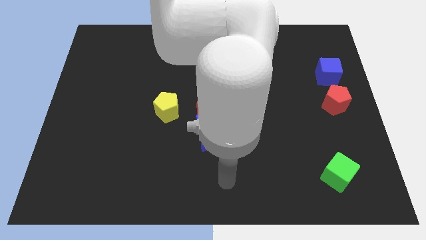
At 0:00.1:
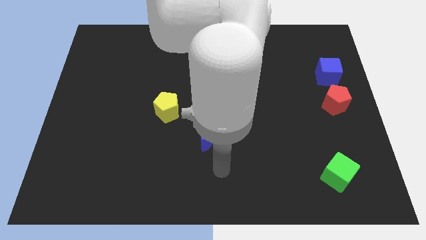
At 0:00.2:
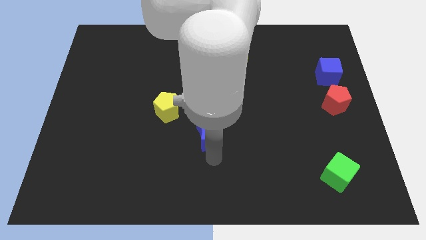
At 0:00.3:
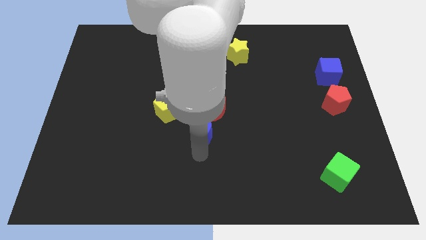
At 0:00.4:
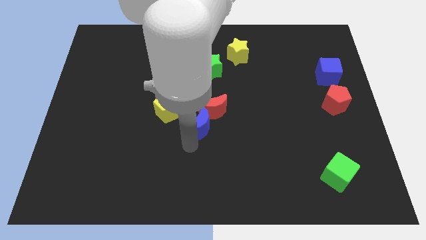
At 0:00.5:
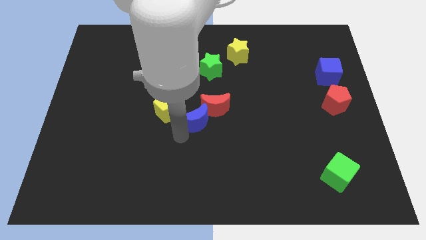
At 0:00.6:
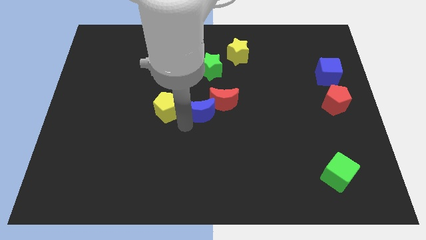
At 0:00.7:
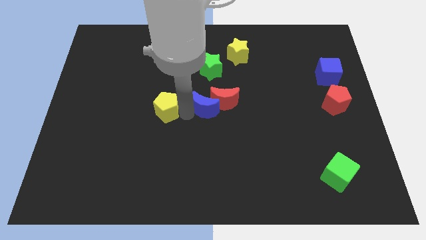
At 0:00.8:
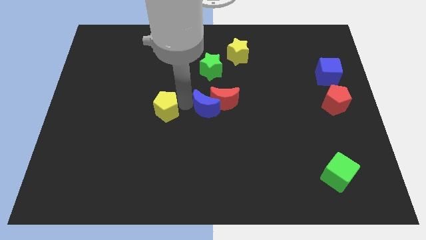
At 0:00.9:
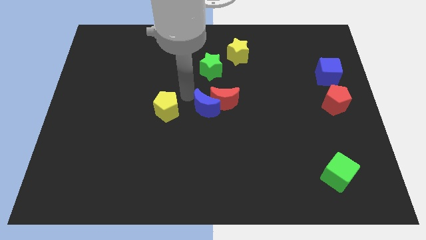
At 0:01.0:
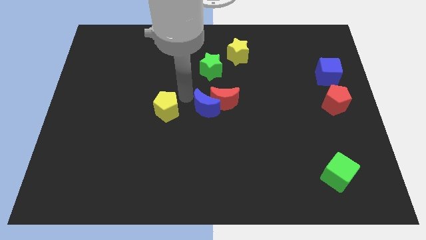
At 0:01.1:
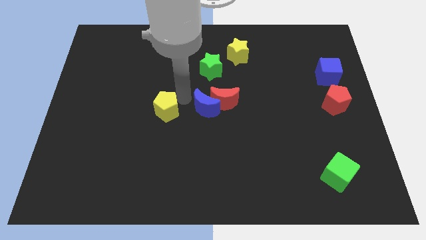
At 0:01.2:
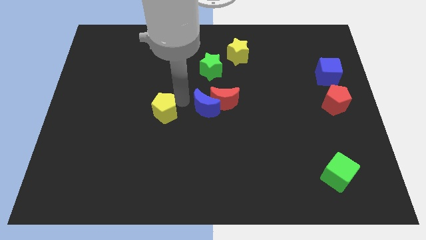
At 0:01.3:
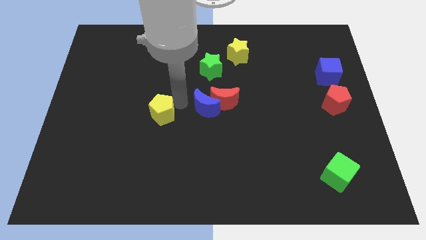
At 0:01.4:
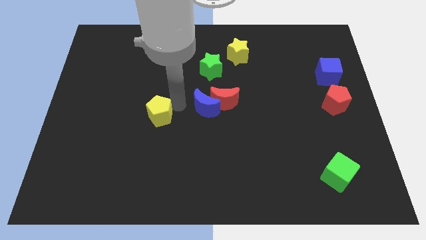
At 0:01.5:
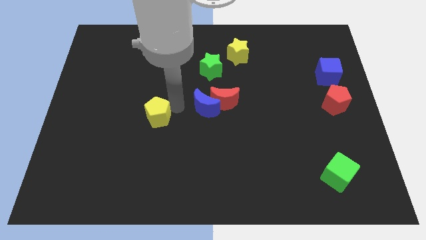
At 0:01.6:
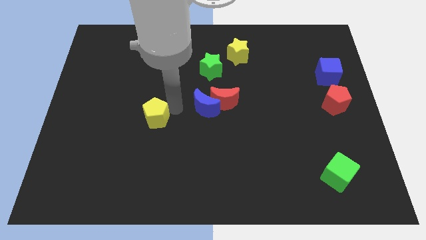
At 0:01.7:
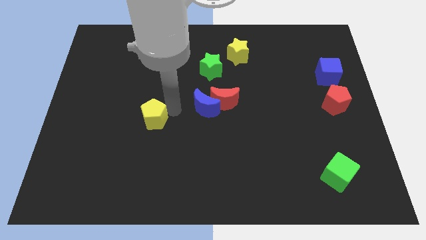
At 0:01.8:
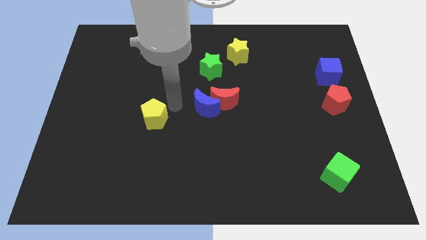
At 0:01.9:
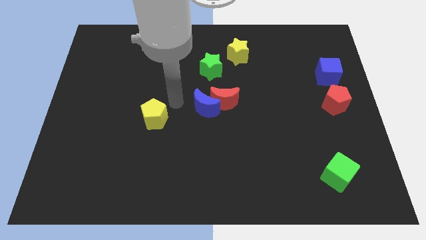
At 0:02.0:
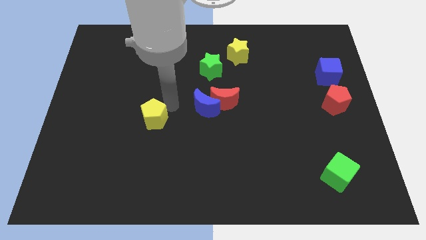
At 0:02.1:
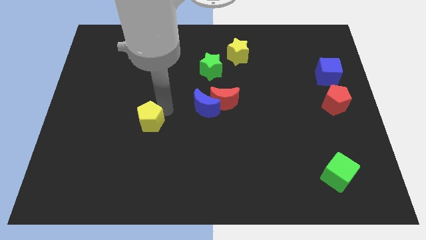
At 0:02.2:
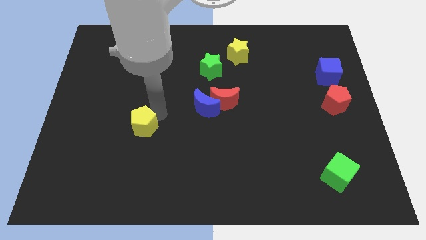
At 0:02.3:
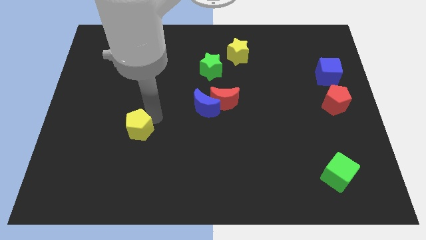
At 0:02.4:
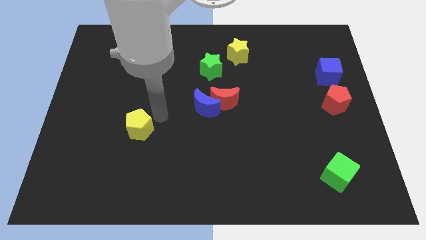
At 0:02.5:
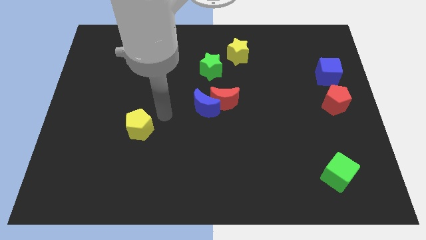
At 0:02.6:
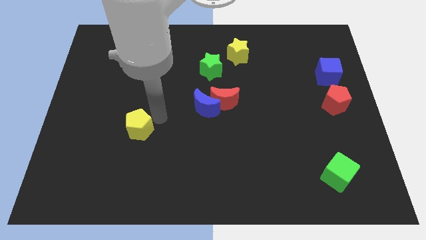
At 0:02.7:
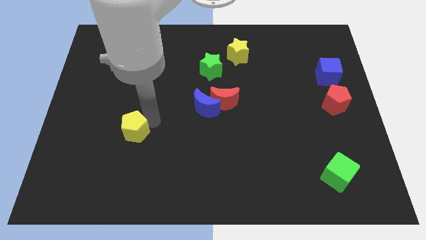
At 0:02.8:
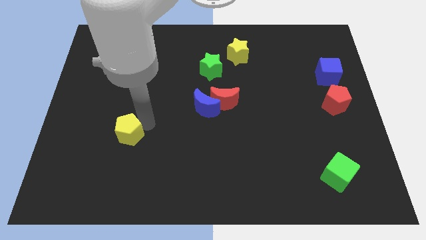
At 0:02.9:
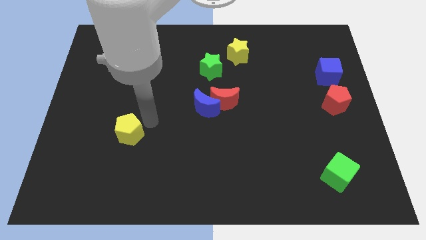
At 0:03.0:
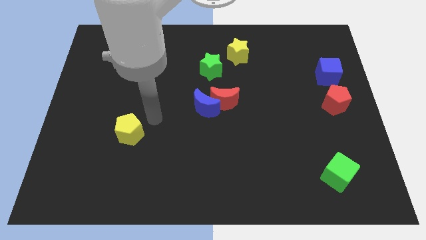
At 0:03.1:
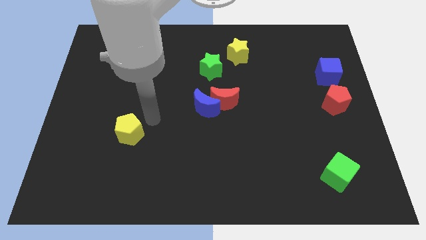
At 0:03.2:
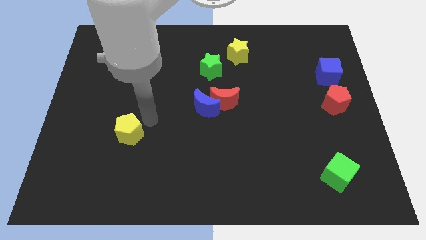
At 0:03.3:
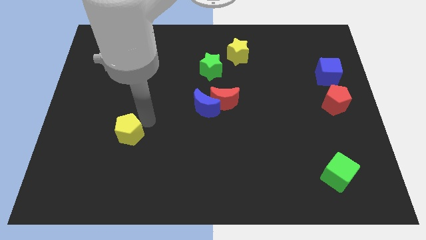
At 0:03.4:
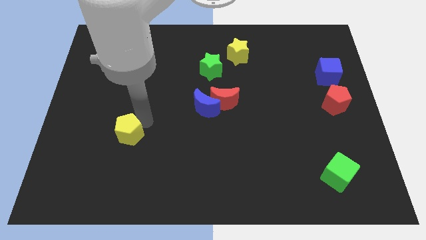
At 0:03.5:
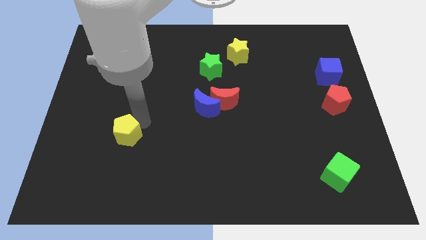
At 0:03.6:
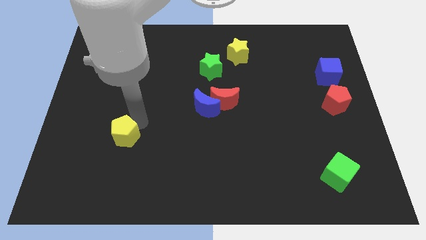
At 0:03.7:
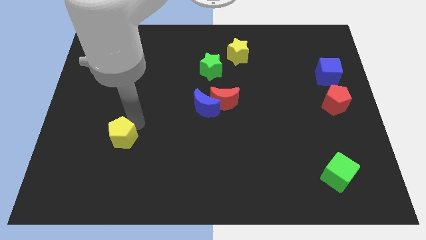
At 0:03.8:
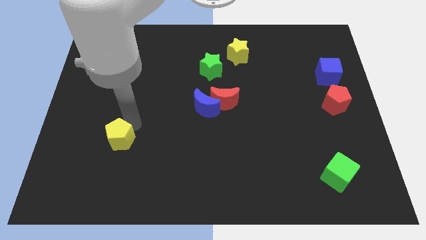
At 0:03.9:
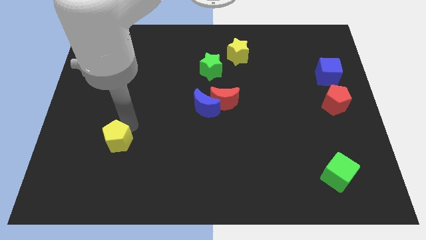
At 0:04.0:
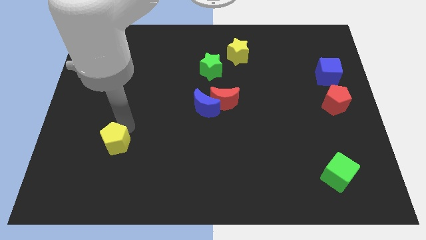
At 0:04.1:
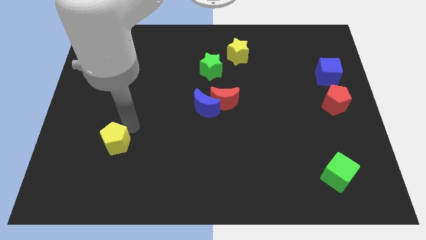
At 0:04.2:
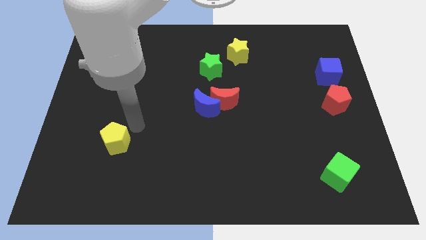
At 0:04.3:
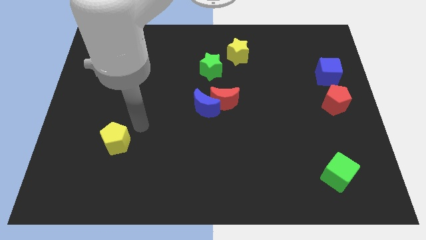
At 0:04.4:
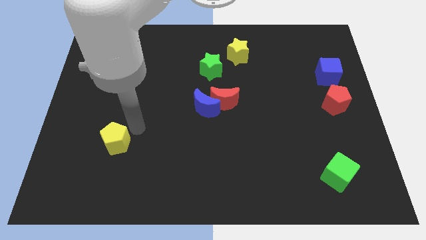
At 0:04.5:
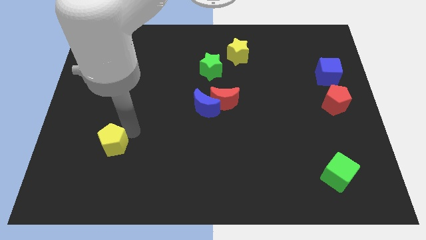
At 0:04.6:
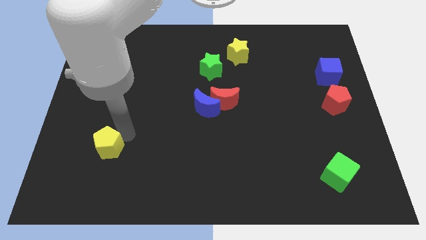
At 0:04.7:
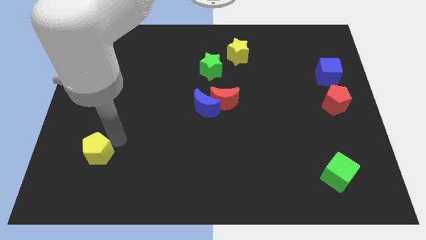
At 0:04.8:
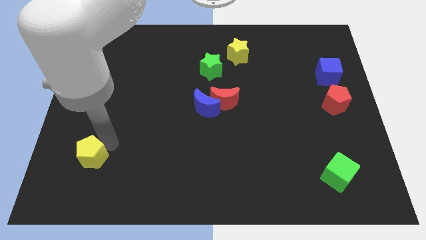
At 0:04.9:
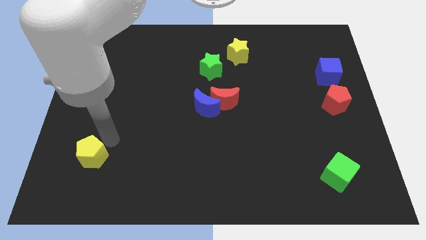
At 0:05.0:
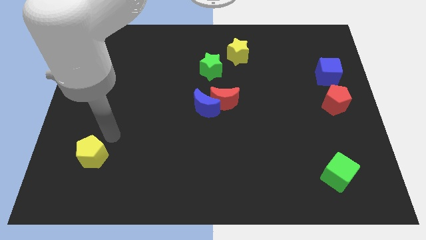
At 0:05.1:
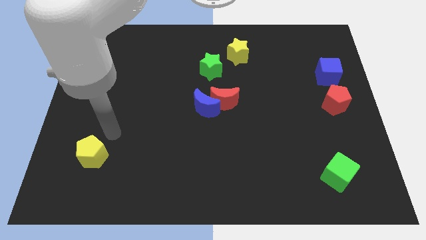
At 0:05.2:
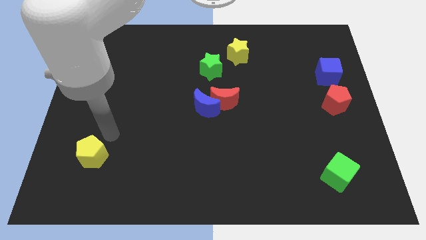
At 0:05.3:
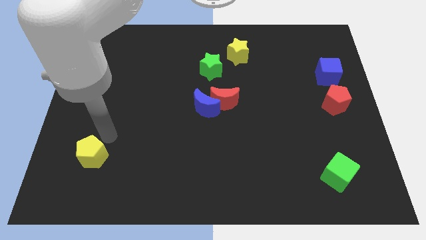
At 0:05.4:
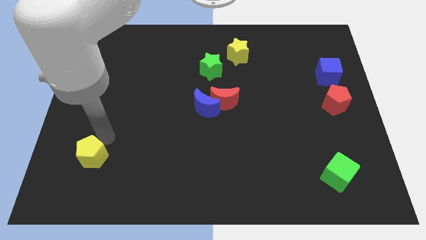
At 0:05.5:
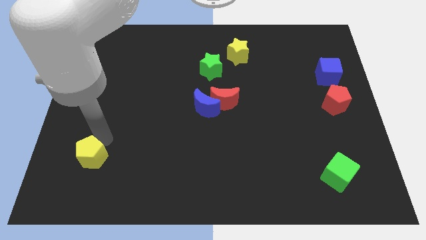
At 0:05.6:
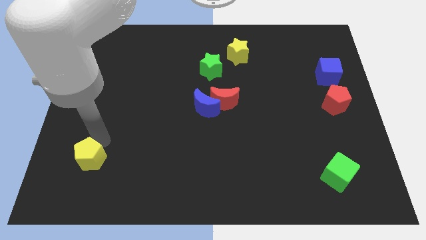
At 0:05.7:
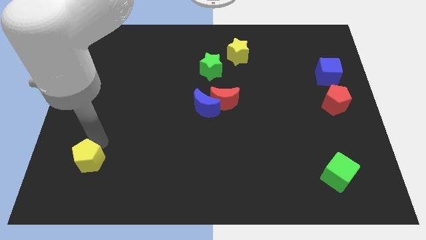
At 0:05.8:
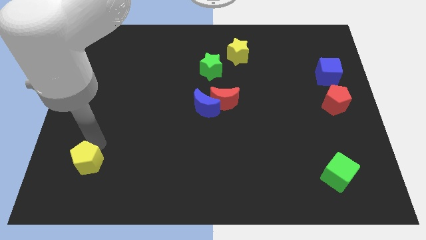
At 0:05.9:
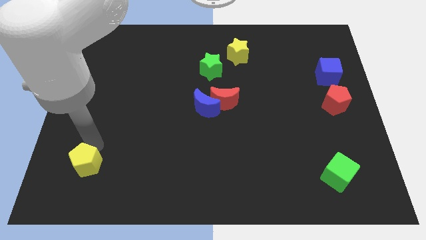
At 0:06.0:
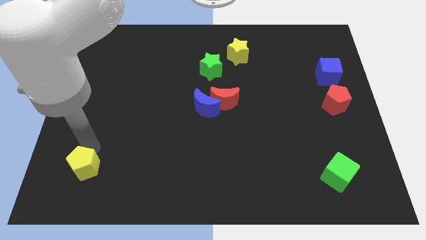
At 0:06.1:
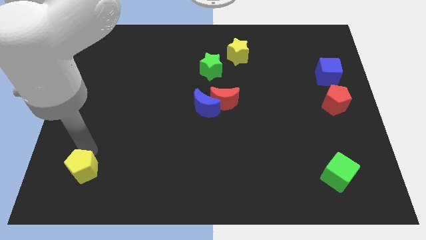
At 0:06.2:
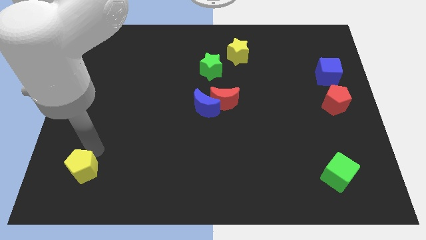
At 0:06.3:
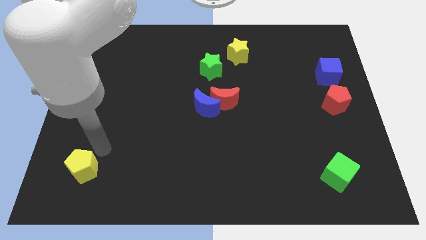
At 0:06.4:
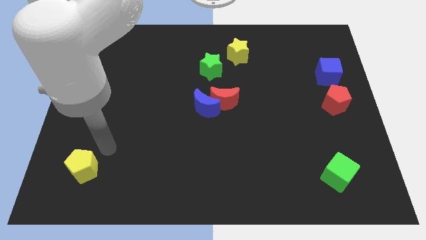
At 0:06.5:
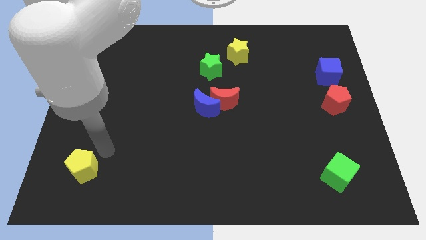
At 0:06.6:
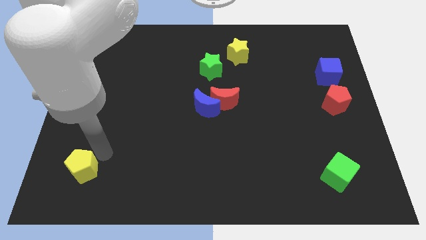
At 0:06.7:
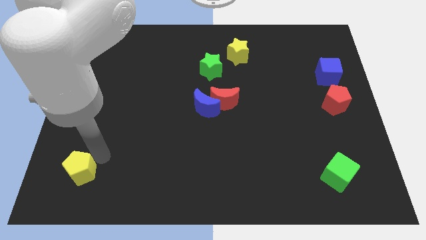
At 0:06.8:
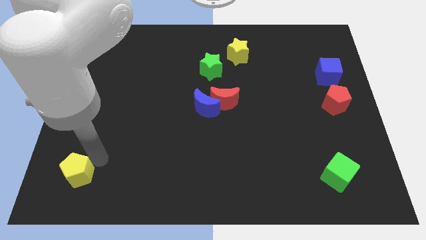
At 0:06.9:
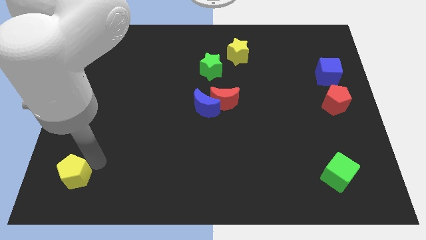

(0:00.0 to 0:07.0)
move the yellow pentagon to the bottom left corner

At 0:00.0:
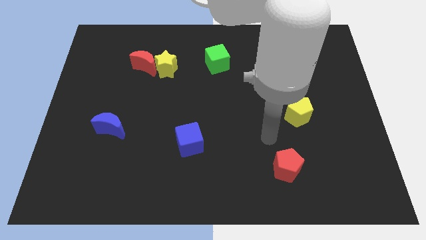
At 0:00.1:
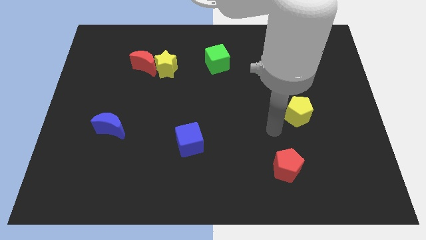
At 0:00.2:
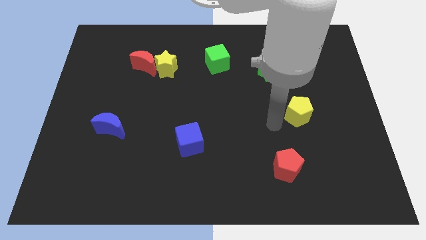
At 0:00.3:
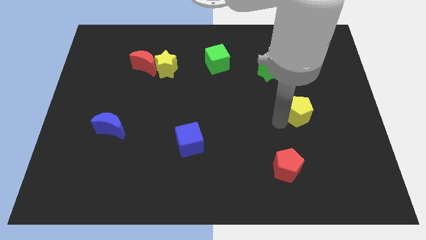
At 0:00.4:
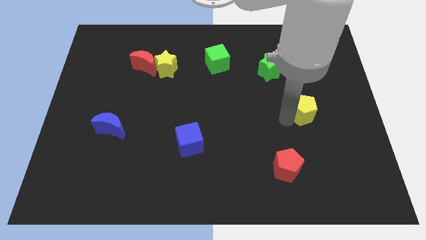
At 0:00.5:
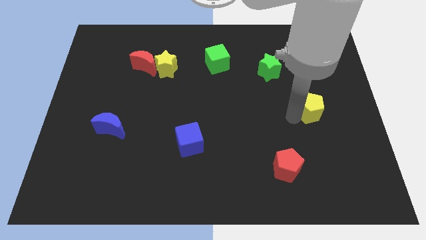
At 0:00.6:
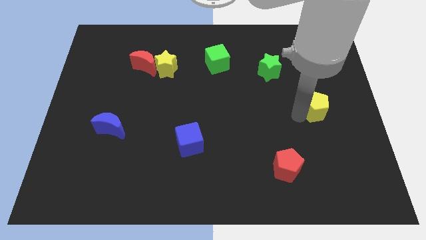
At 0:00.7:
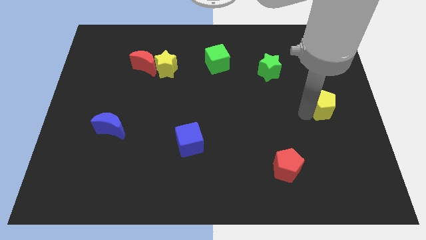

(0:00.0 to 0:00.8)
push the yellow pentagon to the center right

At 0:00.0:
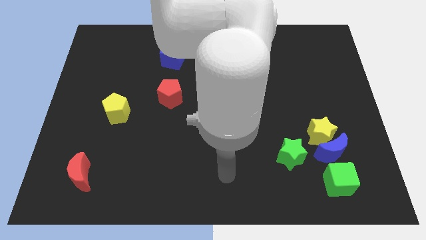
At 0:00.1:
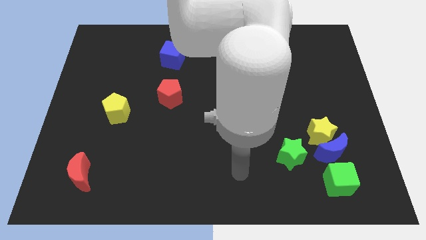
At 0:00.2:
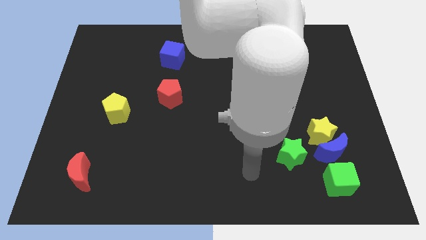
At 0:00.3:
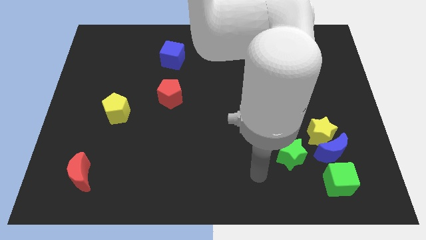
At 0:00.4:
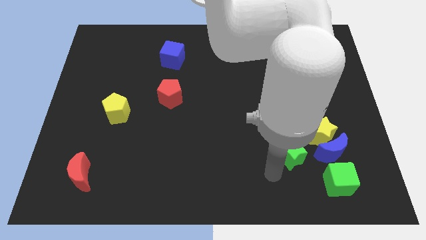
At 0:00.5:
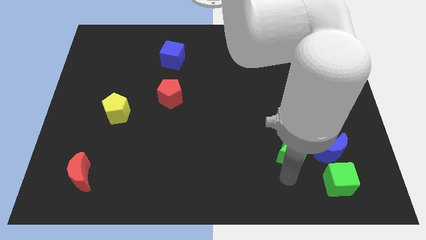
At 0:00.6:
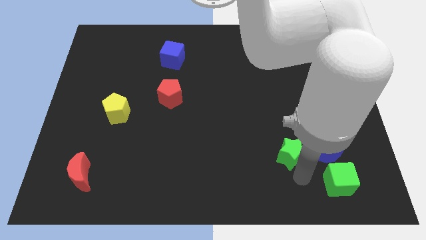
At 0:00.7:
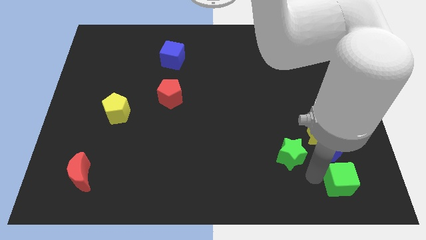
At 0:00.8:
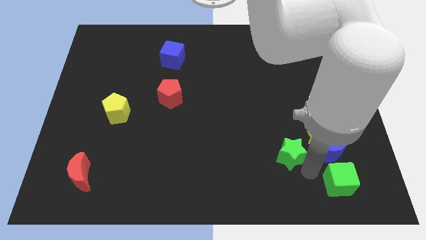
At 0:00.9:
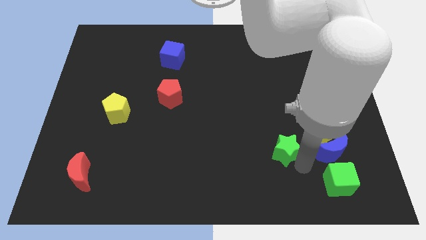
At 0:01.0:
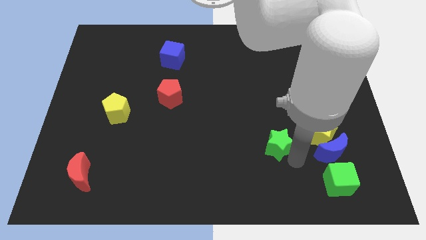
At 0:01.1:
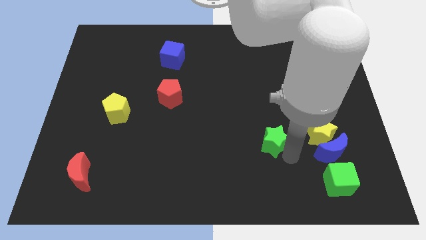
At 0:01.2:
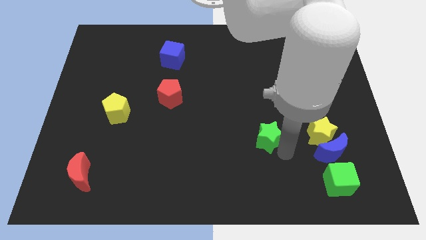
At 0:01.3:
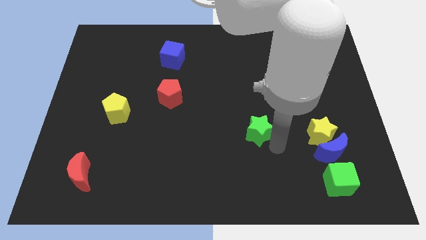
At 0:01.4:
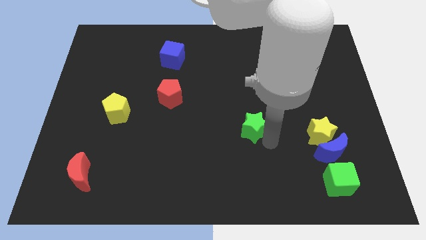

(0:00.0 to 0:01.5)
move the green star to the center
